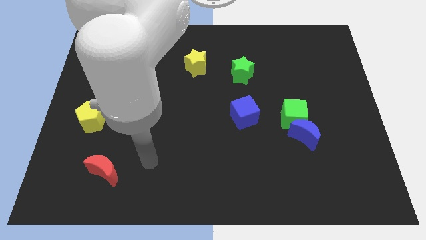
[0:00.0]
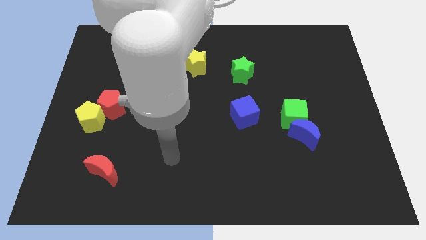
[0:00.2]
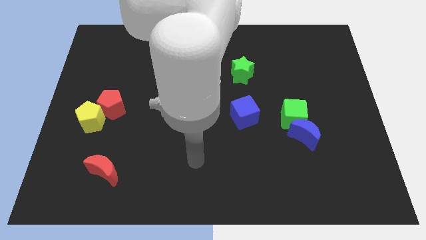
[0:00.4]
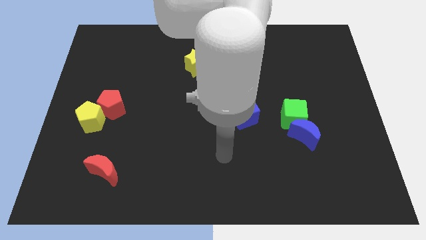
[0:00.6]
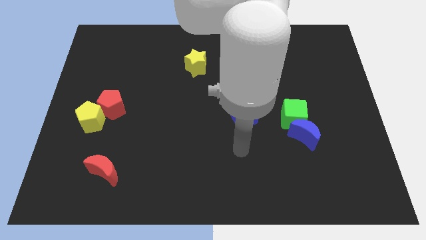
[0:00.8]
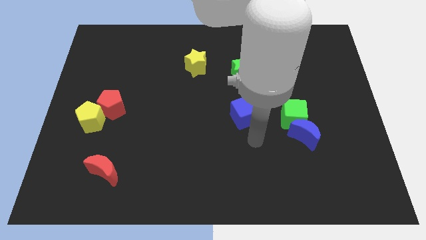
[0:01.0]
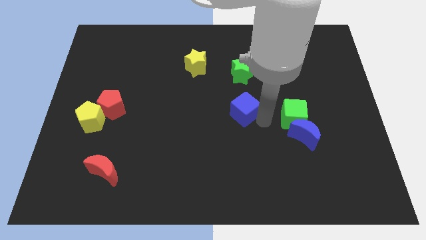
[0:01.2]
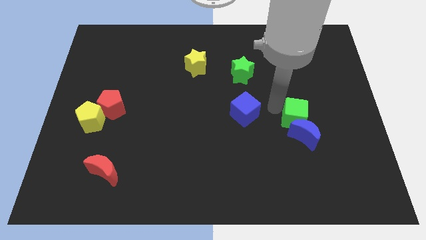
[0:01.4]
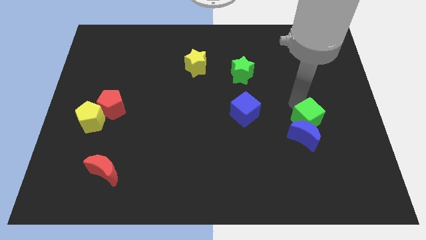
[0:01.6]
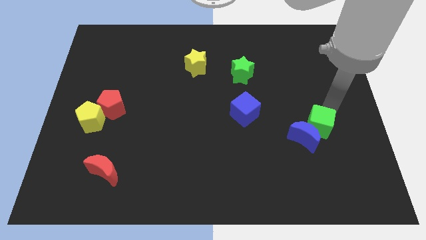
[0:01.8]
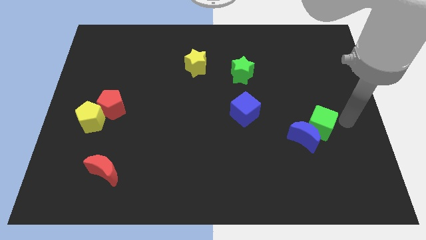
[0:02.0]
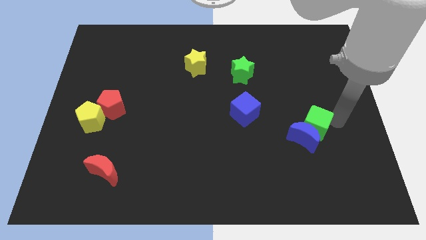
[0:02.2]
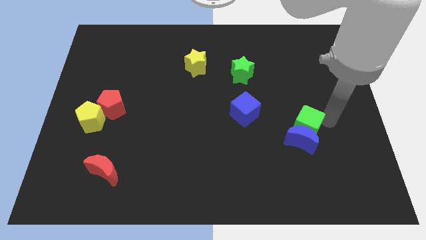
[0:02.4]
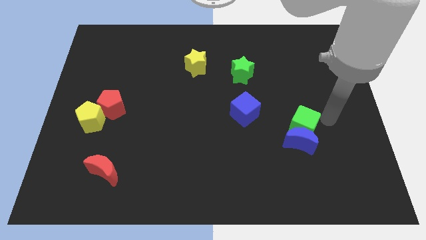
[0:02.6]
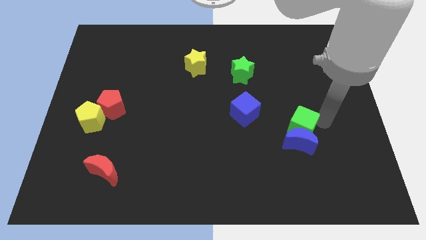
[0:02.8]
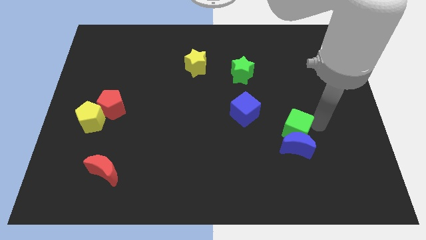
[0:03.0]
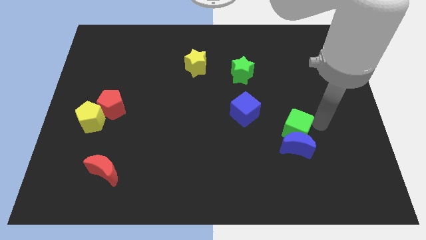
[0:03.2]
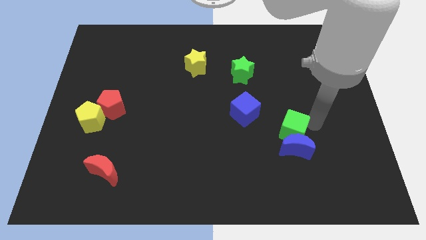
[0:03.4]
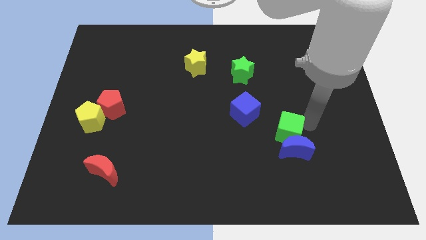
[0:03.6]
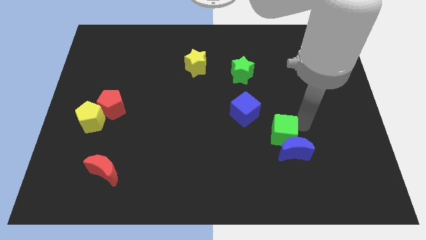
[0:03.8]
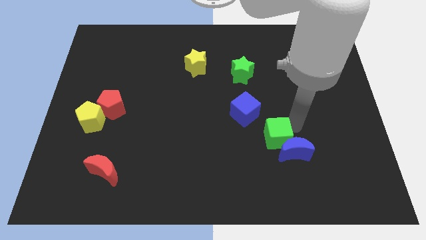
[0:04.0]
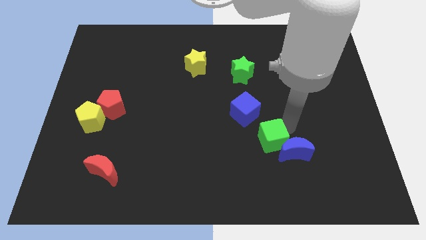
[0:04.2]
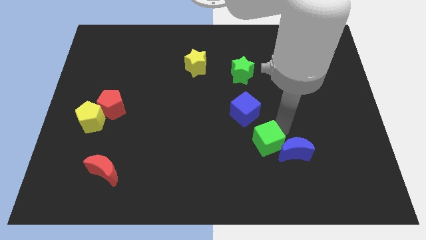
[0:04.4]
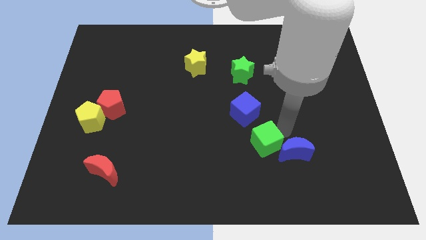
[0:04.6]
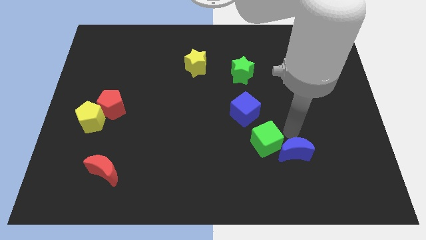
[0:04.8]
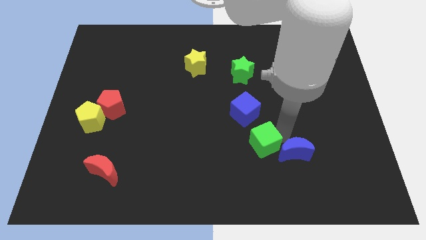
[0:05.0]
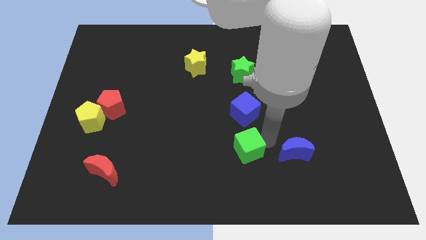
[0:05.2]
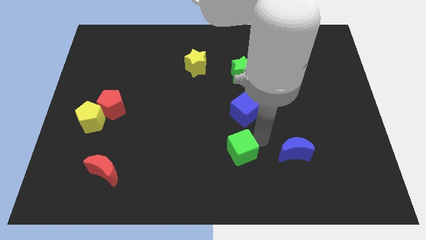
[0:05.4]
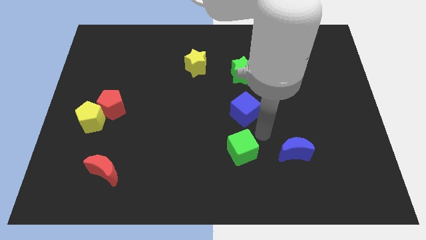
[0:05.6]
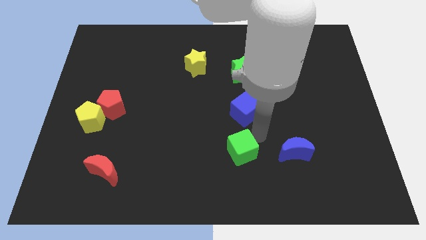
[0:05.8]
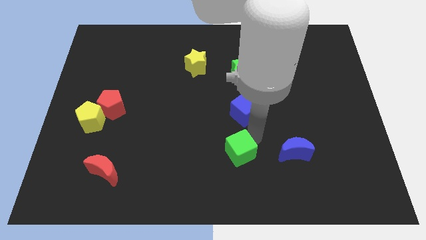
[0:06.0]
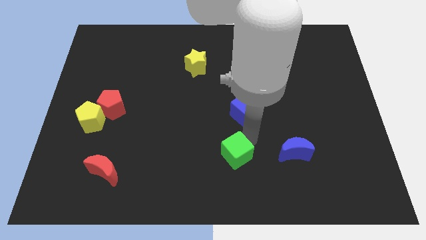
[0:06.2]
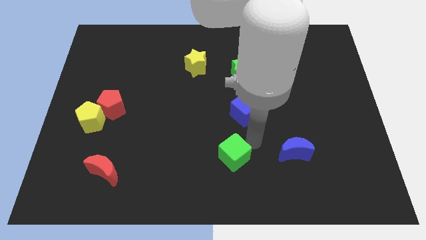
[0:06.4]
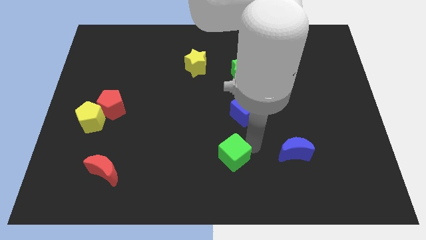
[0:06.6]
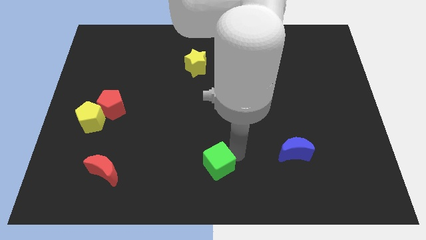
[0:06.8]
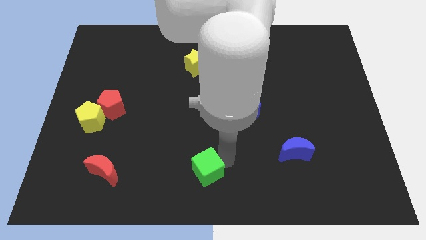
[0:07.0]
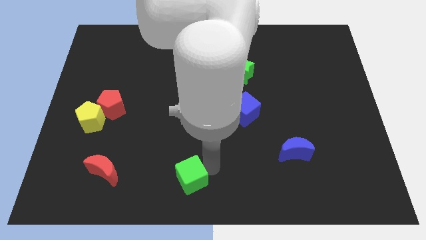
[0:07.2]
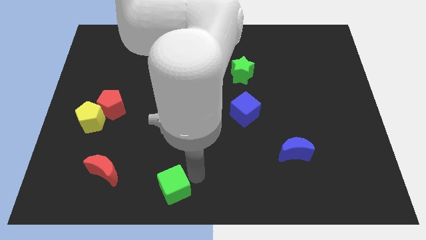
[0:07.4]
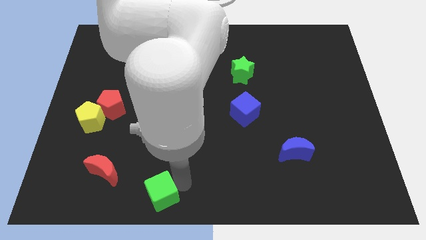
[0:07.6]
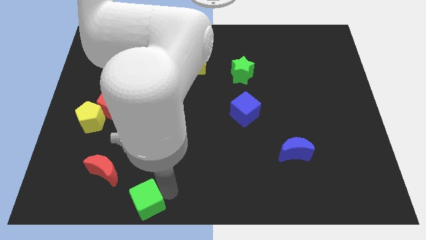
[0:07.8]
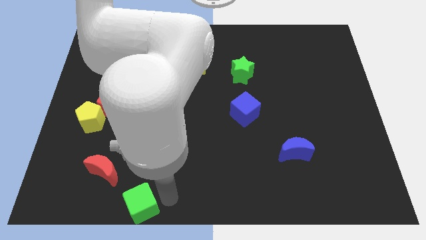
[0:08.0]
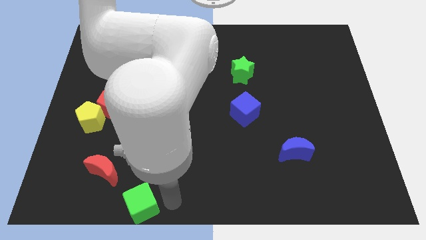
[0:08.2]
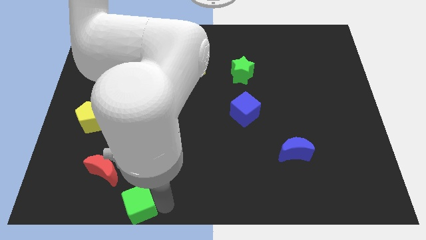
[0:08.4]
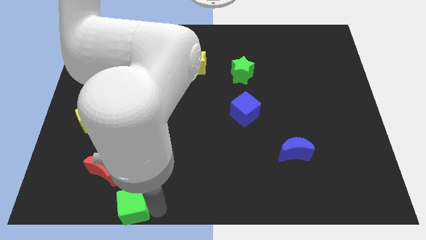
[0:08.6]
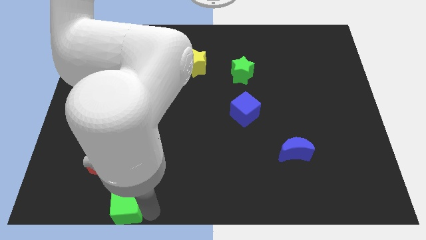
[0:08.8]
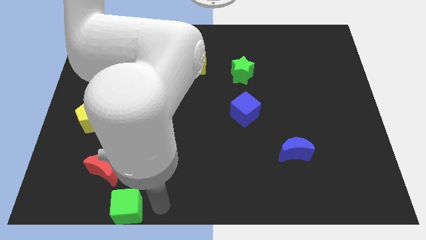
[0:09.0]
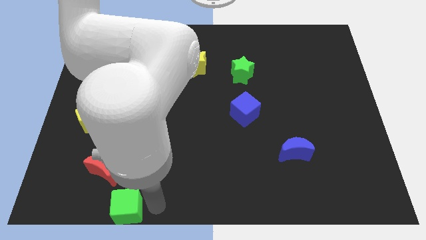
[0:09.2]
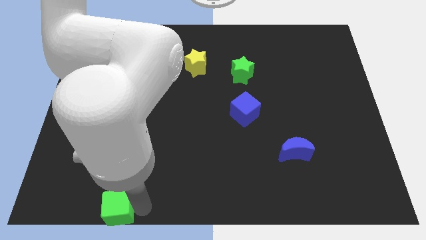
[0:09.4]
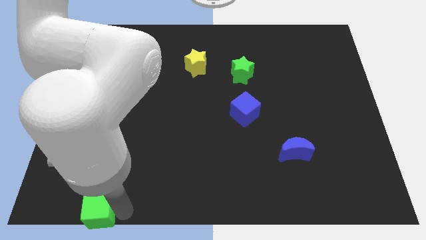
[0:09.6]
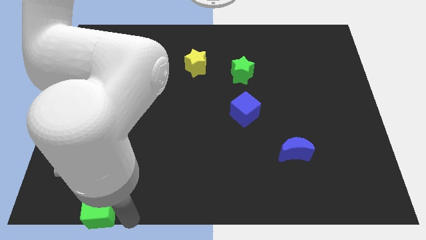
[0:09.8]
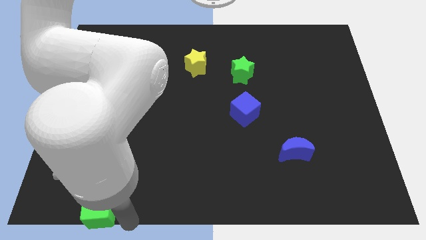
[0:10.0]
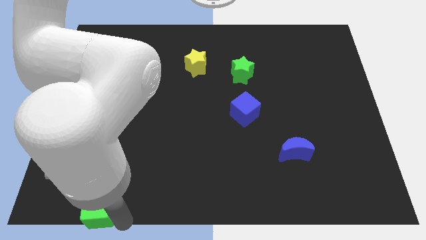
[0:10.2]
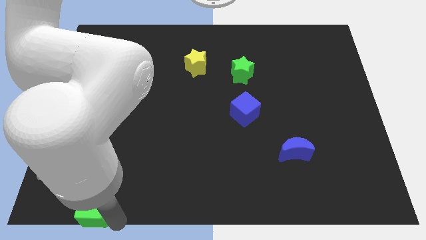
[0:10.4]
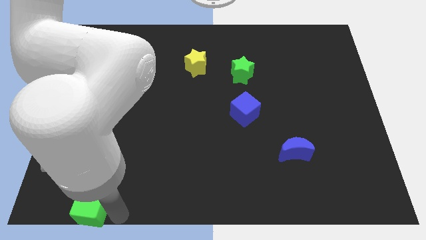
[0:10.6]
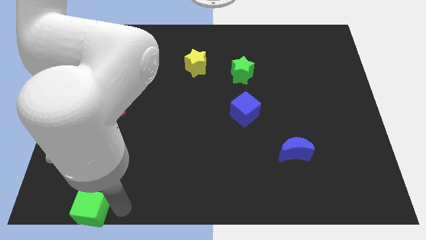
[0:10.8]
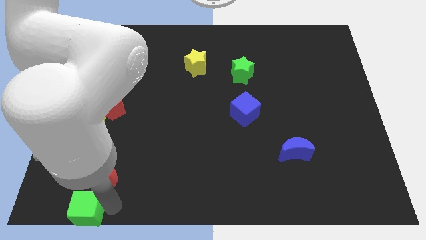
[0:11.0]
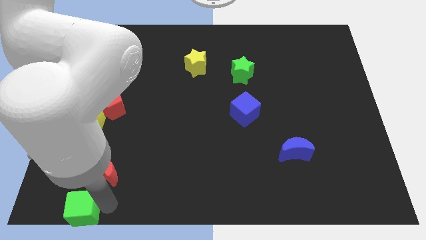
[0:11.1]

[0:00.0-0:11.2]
put the green cube to the bottom left corner

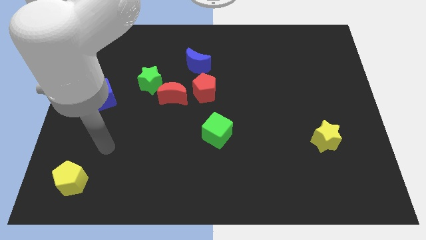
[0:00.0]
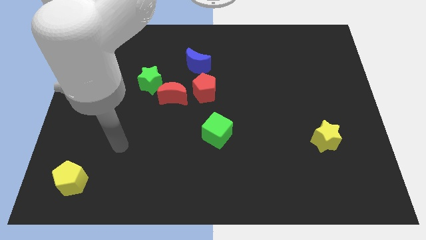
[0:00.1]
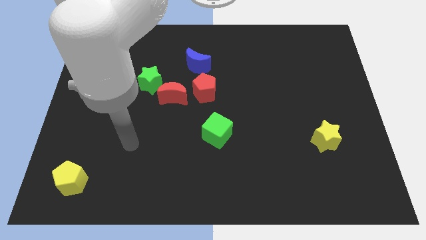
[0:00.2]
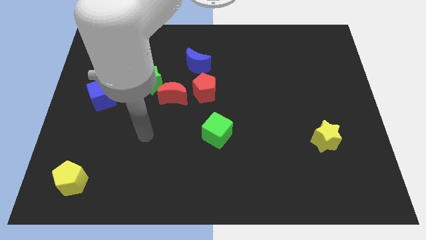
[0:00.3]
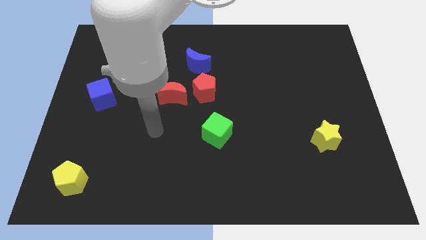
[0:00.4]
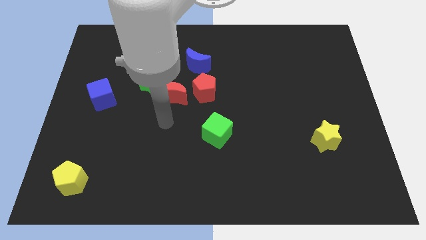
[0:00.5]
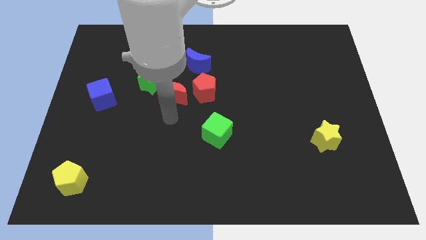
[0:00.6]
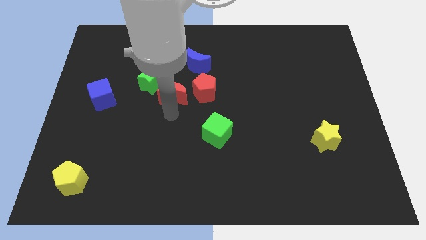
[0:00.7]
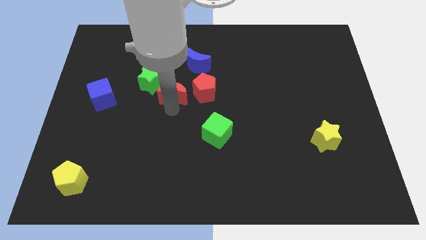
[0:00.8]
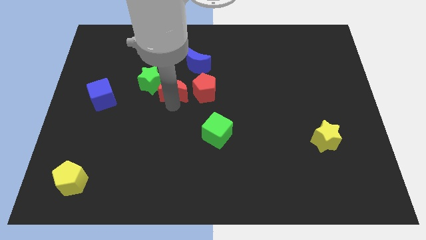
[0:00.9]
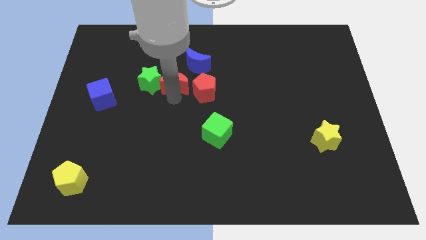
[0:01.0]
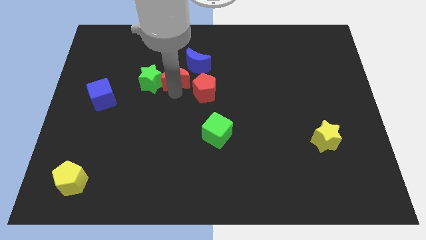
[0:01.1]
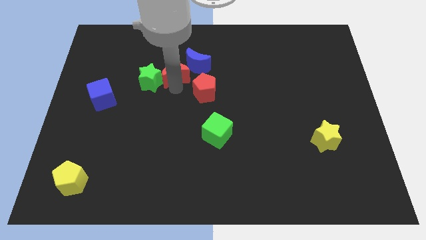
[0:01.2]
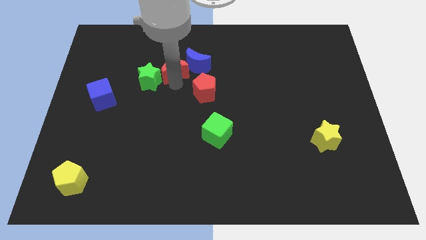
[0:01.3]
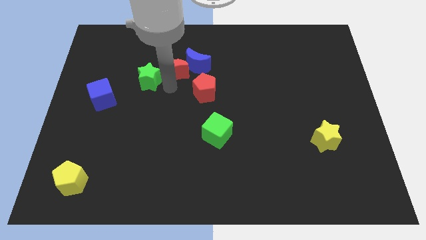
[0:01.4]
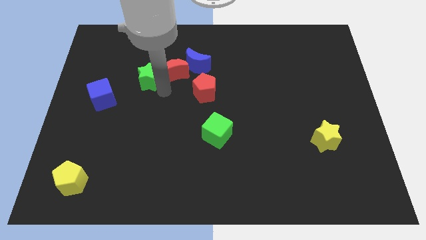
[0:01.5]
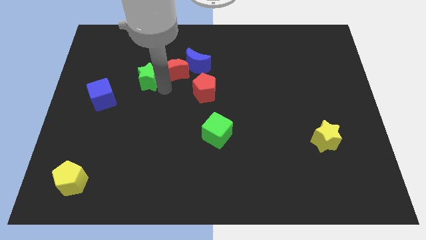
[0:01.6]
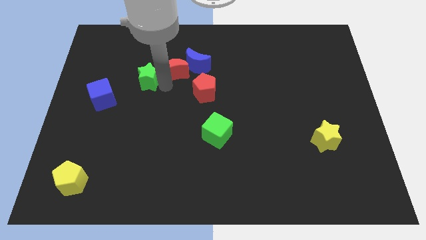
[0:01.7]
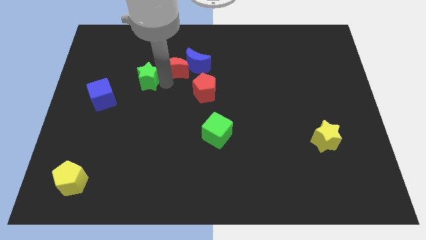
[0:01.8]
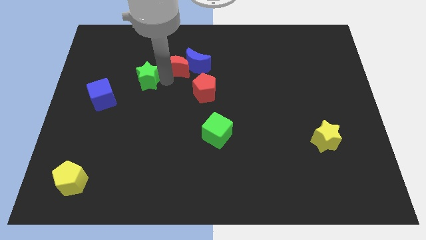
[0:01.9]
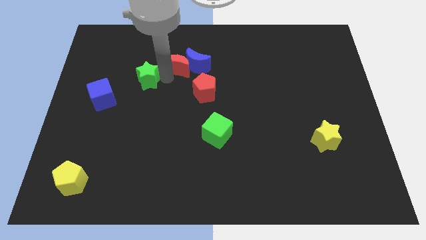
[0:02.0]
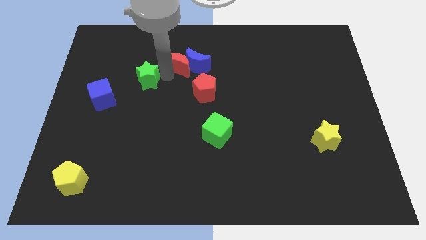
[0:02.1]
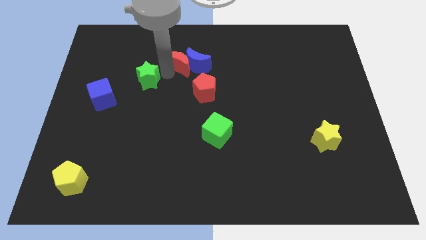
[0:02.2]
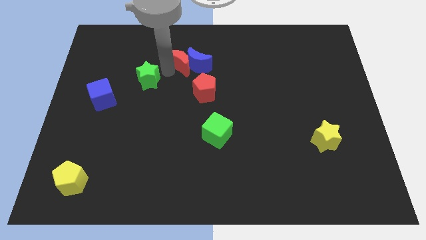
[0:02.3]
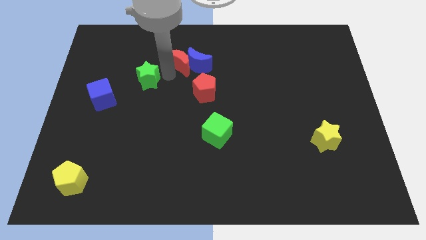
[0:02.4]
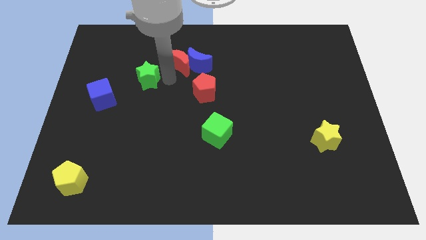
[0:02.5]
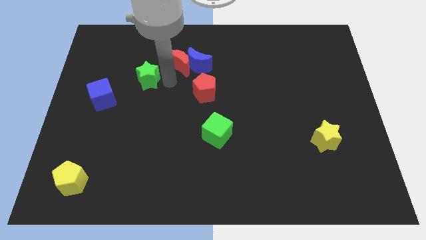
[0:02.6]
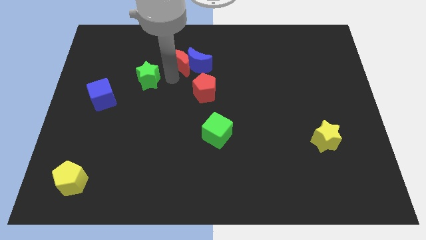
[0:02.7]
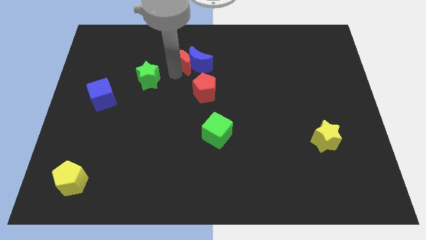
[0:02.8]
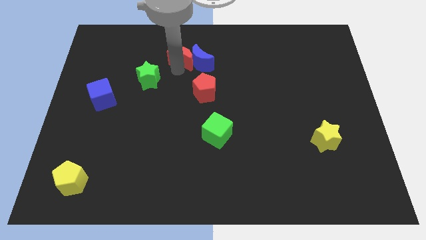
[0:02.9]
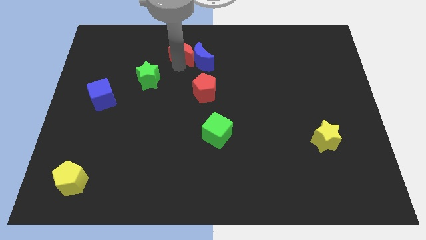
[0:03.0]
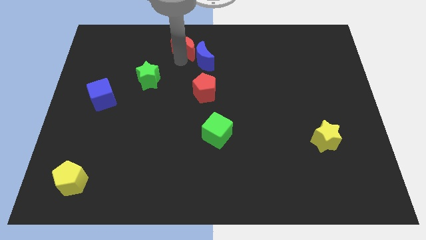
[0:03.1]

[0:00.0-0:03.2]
slide the red moon to the towards your base
